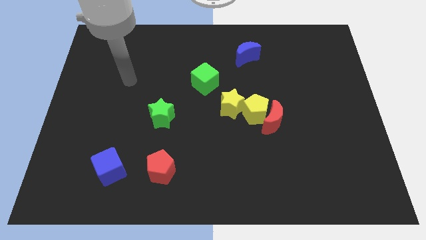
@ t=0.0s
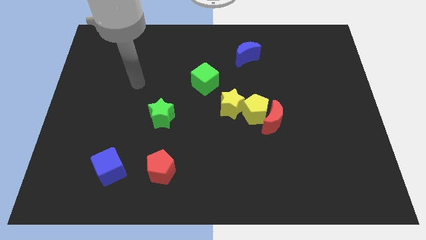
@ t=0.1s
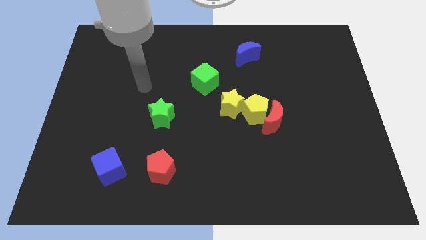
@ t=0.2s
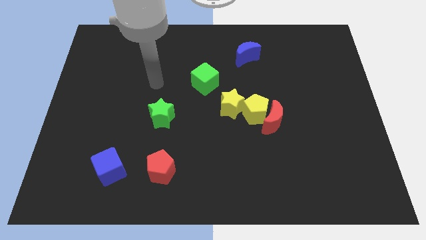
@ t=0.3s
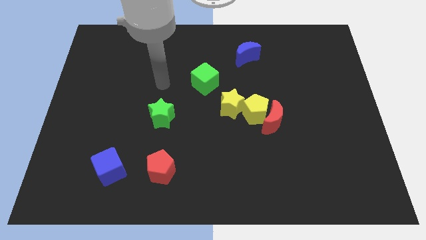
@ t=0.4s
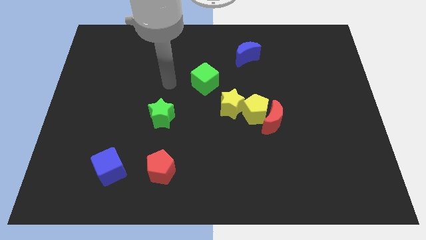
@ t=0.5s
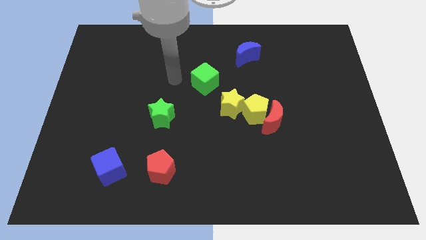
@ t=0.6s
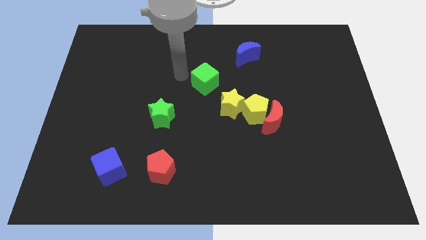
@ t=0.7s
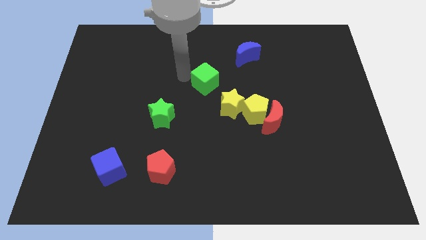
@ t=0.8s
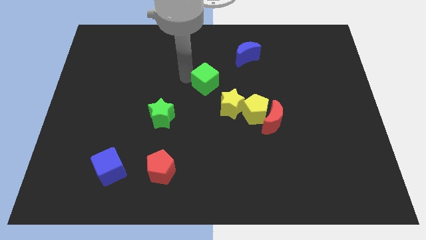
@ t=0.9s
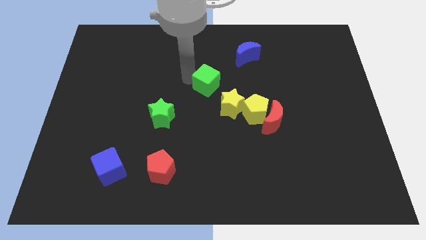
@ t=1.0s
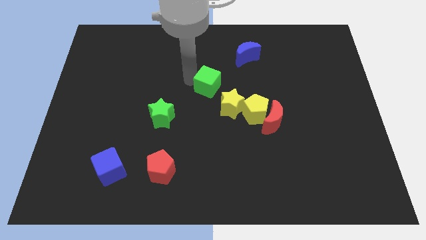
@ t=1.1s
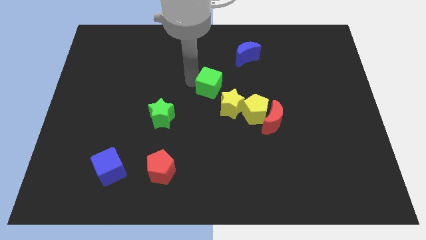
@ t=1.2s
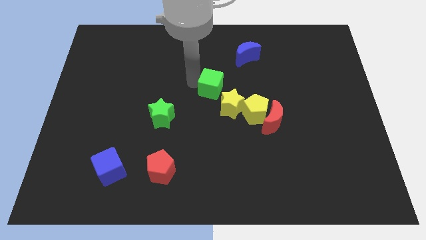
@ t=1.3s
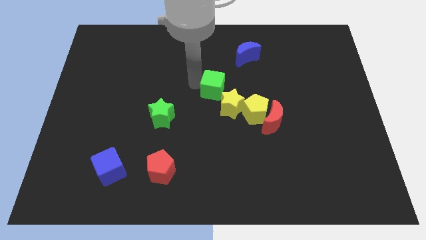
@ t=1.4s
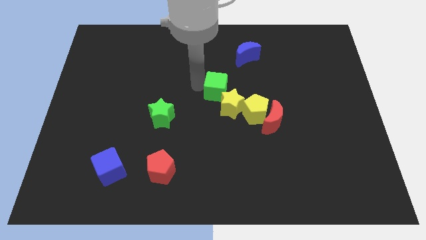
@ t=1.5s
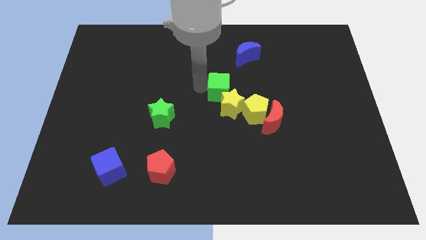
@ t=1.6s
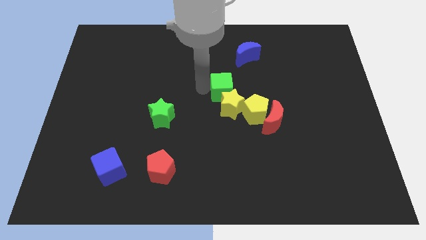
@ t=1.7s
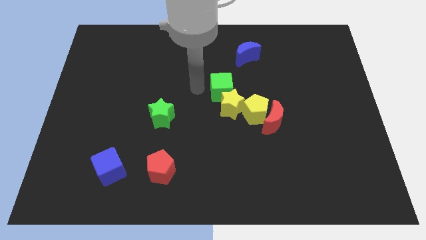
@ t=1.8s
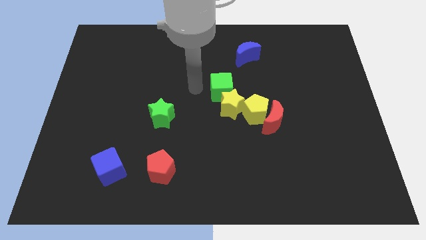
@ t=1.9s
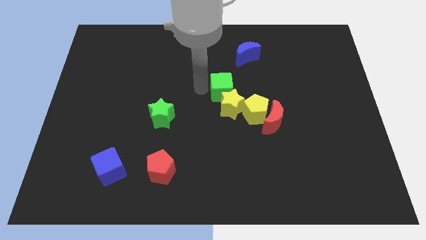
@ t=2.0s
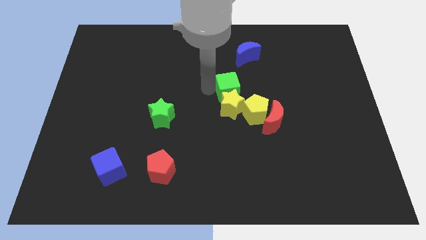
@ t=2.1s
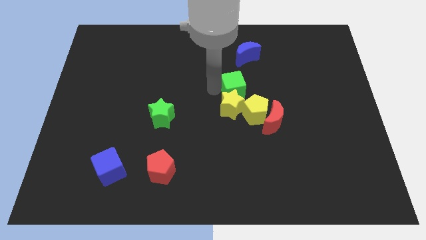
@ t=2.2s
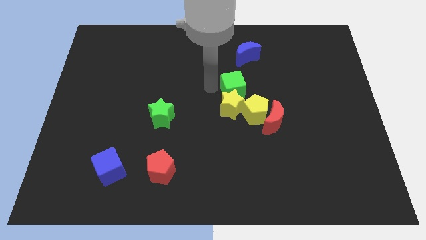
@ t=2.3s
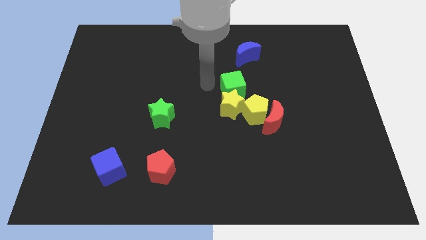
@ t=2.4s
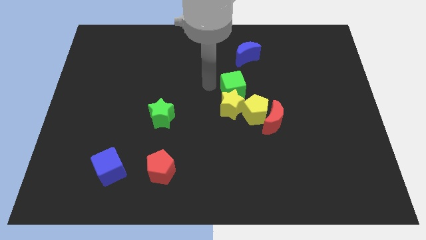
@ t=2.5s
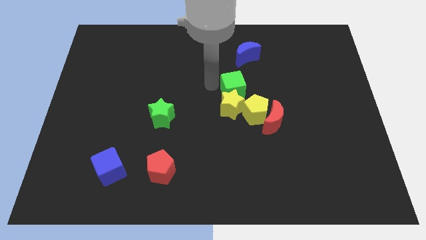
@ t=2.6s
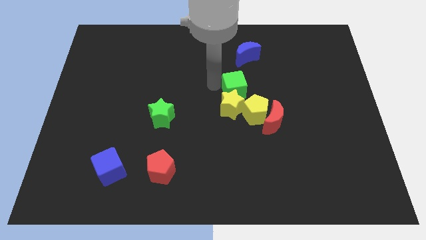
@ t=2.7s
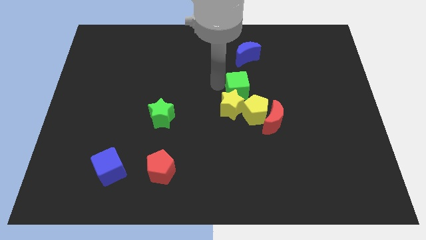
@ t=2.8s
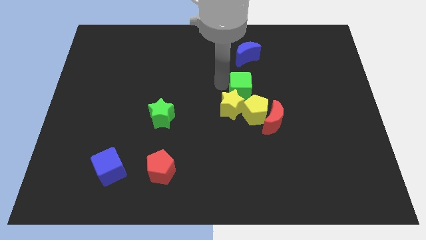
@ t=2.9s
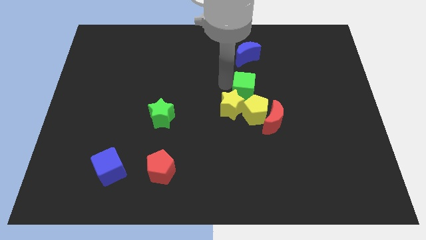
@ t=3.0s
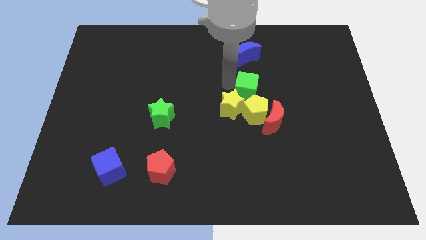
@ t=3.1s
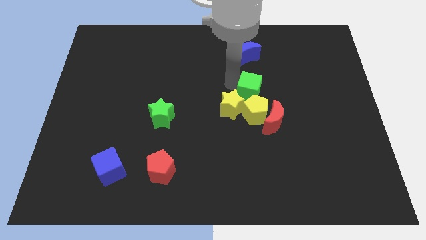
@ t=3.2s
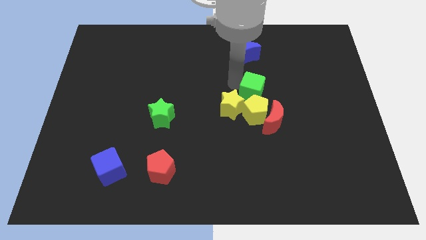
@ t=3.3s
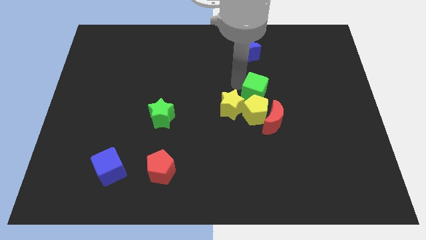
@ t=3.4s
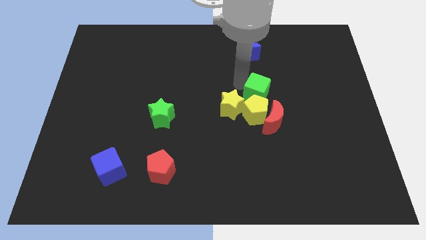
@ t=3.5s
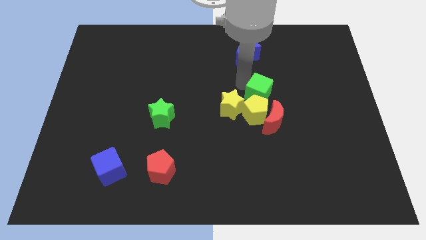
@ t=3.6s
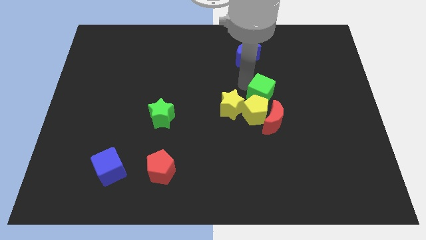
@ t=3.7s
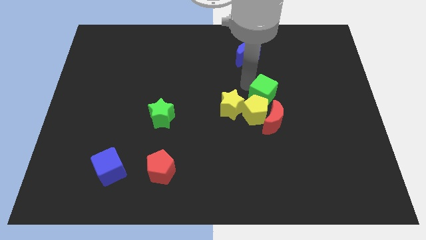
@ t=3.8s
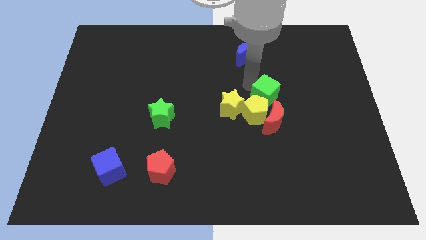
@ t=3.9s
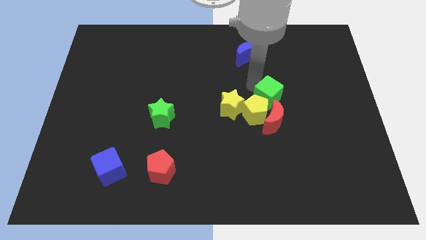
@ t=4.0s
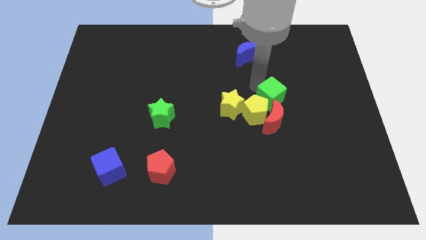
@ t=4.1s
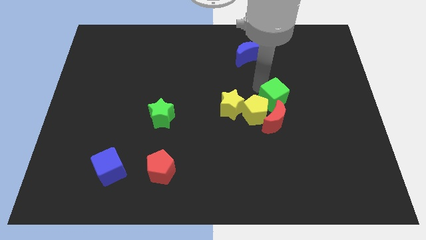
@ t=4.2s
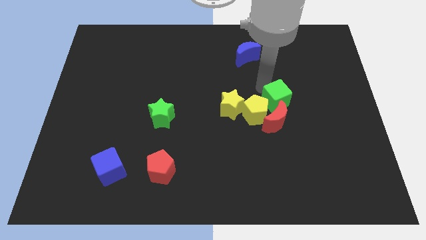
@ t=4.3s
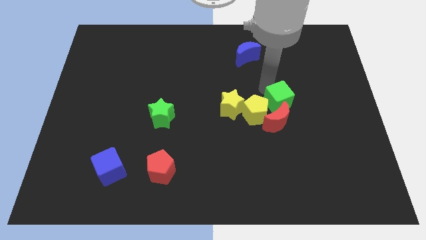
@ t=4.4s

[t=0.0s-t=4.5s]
put the green cube towards the red moon

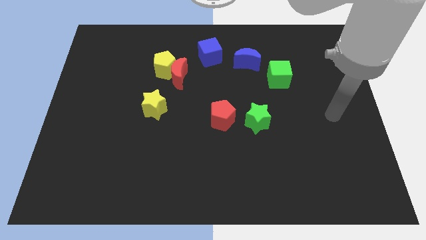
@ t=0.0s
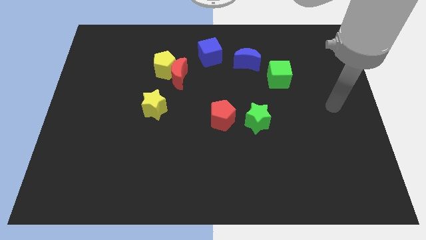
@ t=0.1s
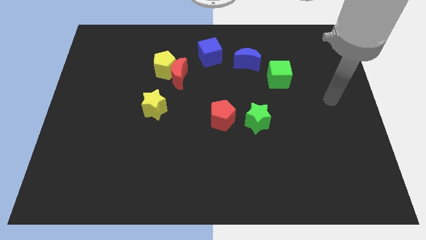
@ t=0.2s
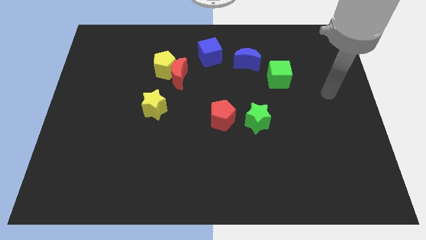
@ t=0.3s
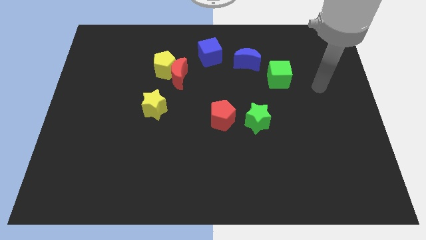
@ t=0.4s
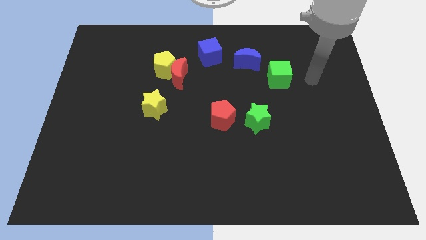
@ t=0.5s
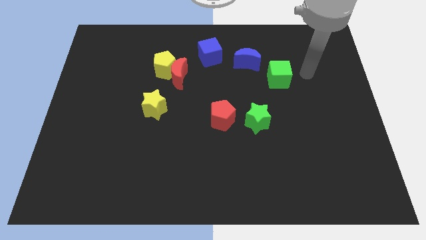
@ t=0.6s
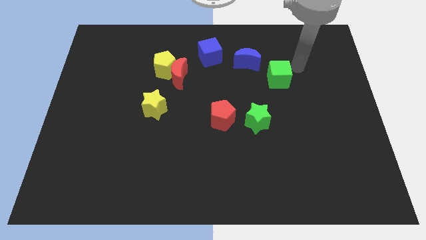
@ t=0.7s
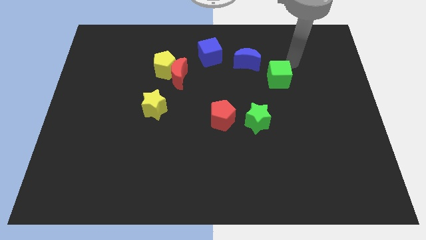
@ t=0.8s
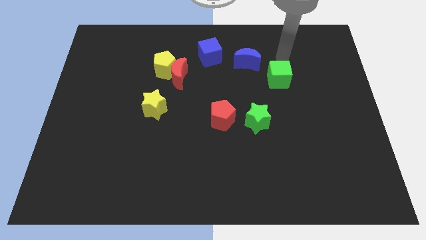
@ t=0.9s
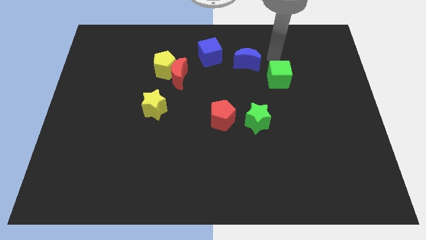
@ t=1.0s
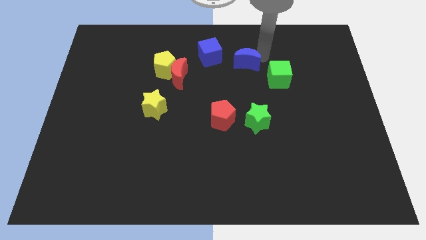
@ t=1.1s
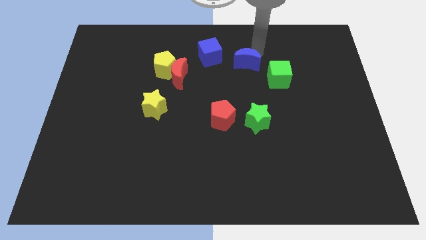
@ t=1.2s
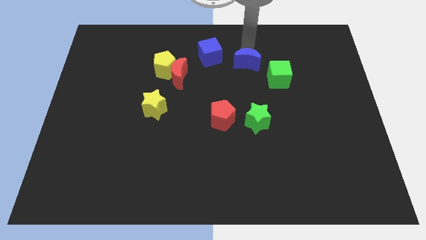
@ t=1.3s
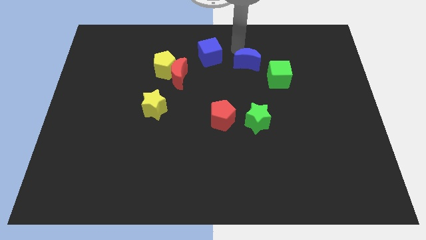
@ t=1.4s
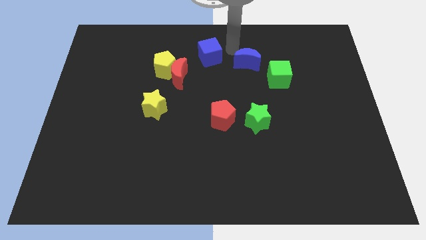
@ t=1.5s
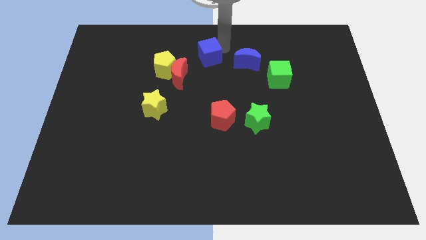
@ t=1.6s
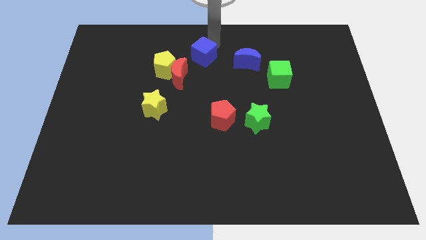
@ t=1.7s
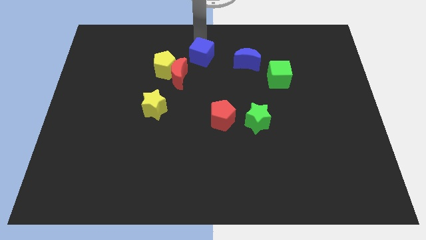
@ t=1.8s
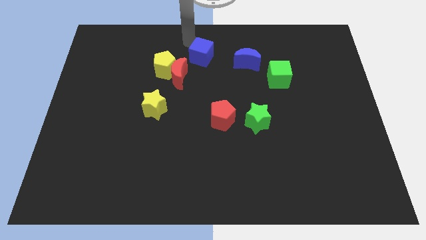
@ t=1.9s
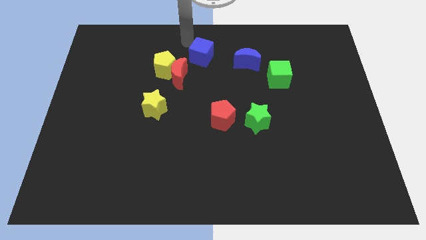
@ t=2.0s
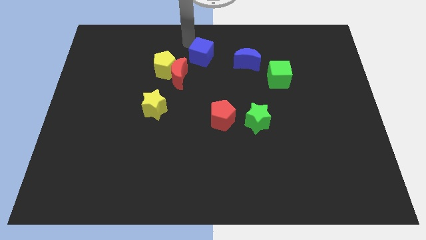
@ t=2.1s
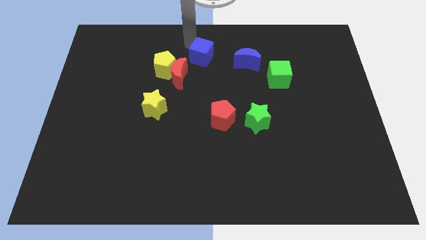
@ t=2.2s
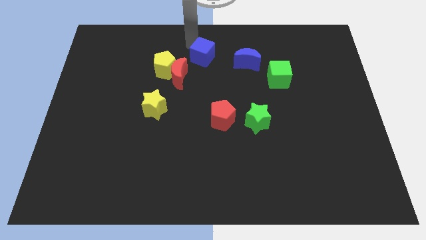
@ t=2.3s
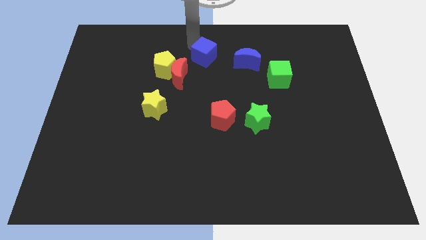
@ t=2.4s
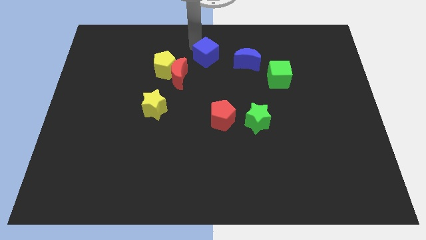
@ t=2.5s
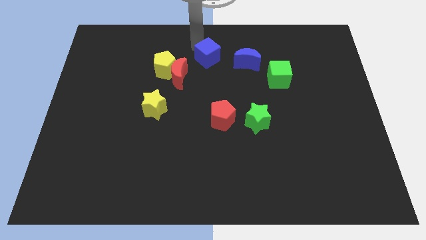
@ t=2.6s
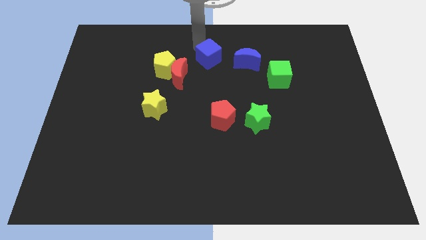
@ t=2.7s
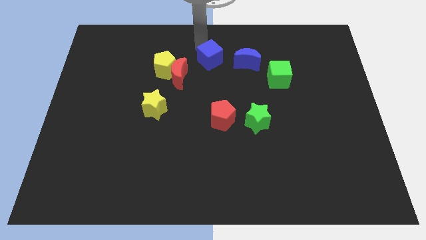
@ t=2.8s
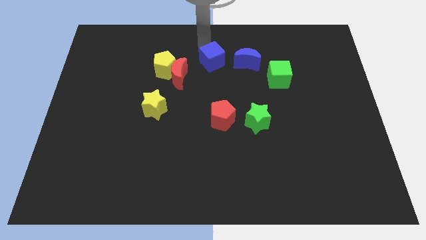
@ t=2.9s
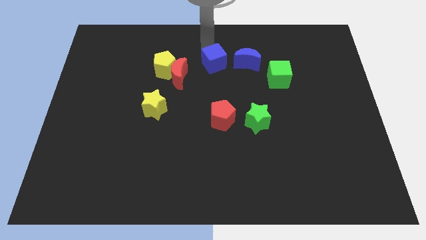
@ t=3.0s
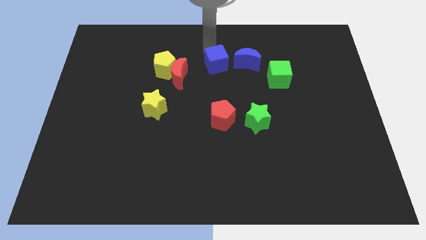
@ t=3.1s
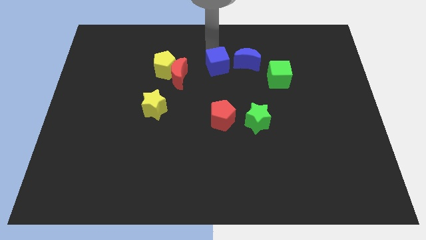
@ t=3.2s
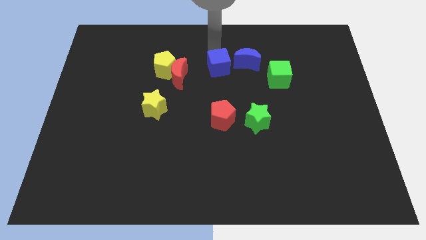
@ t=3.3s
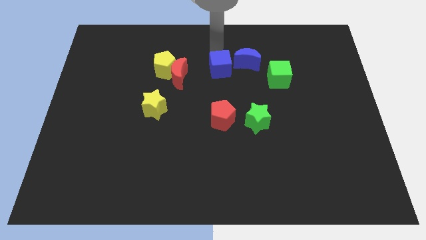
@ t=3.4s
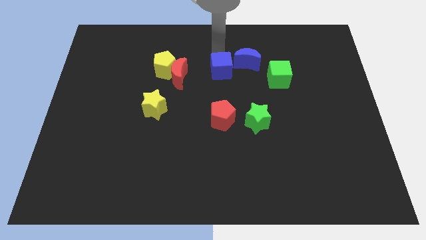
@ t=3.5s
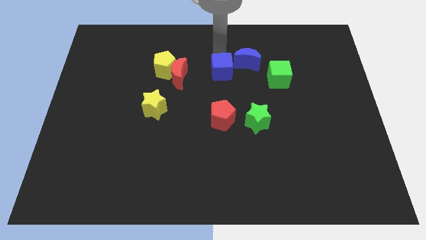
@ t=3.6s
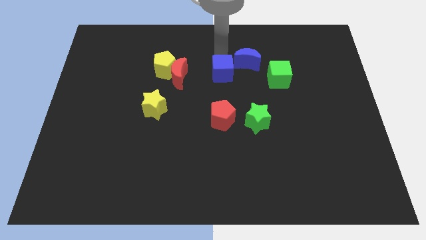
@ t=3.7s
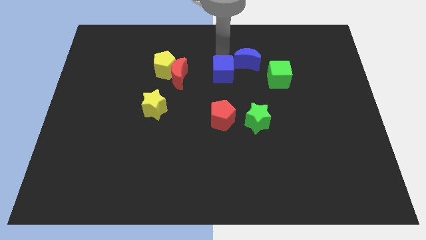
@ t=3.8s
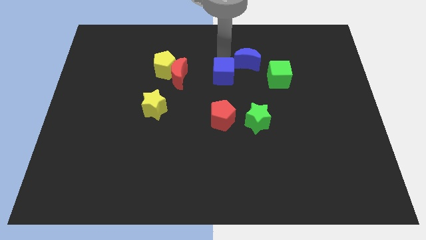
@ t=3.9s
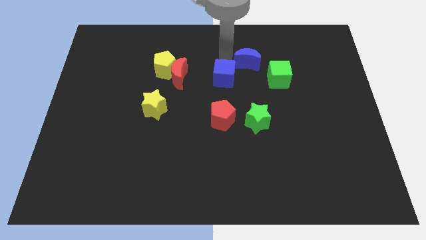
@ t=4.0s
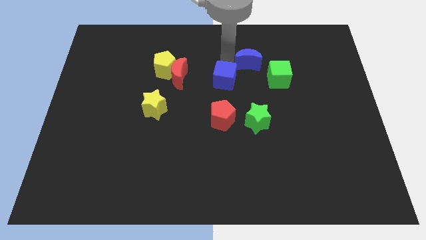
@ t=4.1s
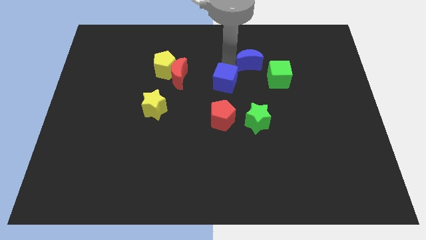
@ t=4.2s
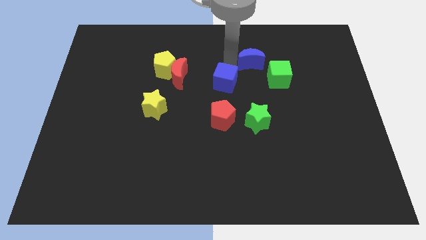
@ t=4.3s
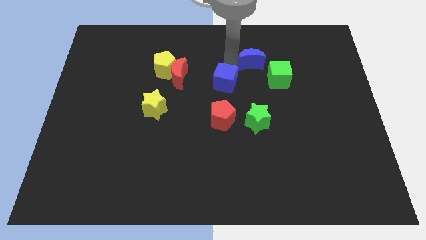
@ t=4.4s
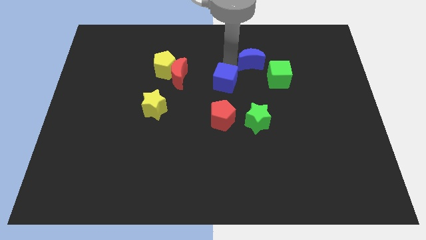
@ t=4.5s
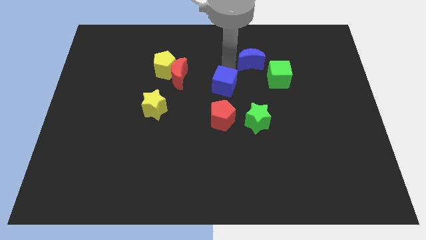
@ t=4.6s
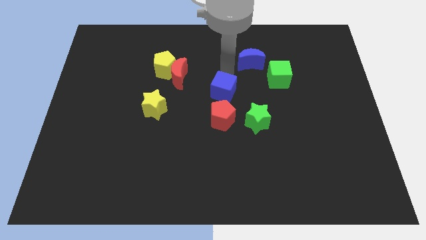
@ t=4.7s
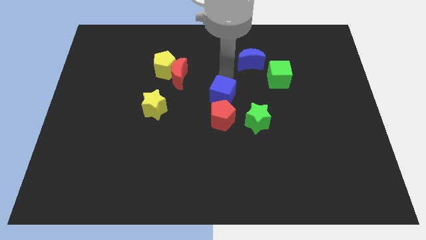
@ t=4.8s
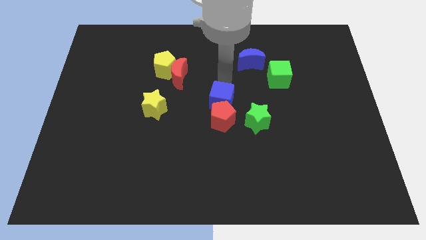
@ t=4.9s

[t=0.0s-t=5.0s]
put the blue cube to the red pentagon
